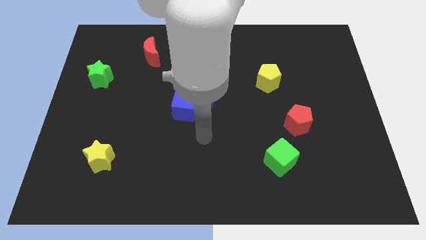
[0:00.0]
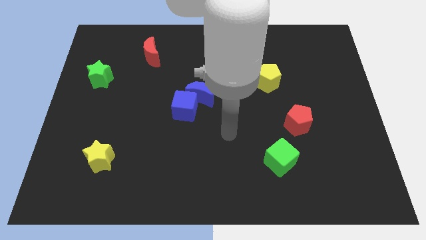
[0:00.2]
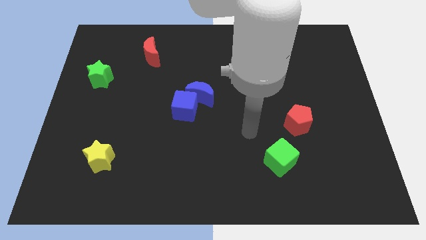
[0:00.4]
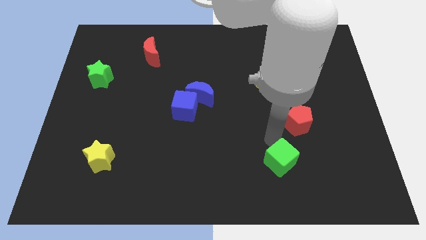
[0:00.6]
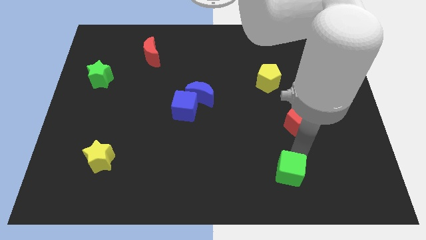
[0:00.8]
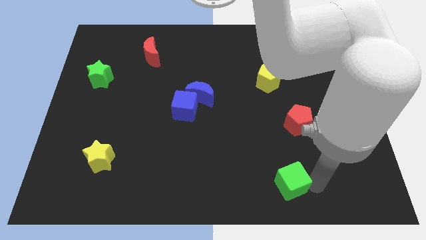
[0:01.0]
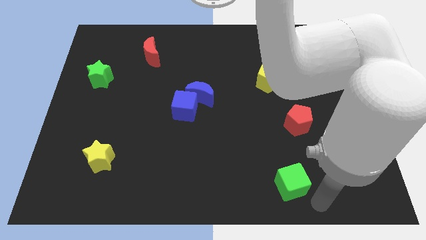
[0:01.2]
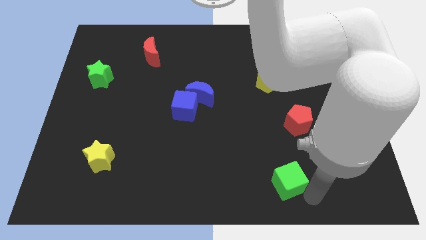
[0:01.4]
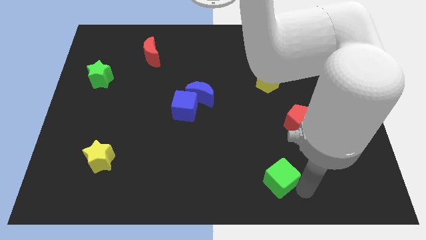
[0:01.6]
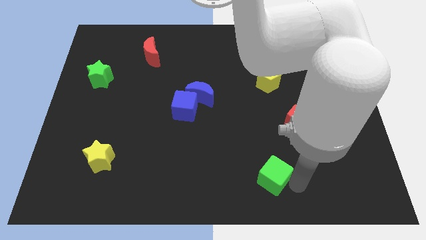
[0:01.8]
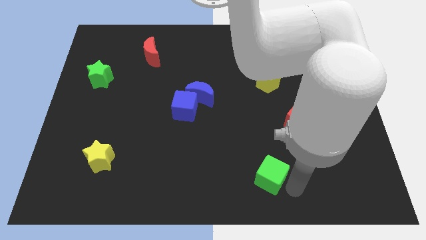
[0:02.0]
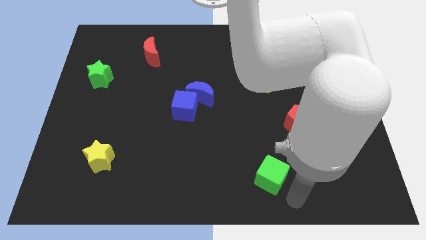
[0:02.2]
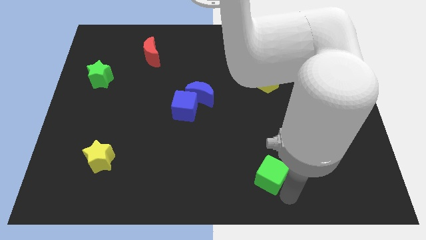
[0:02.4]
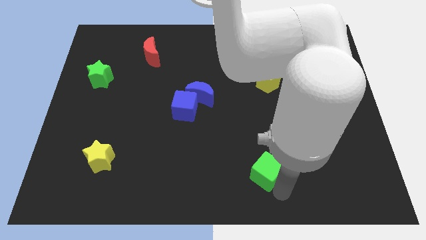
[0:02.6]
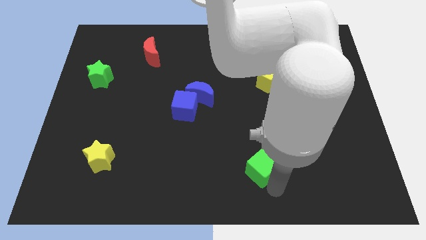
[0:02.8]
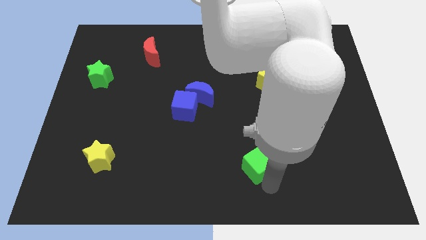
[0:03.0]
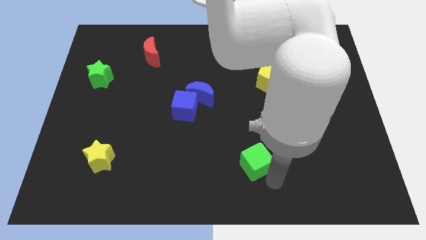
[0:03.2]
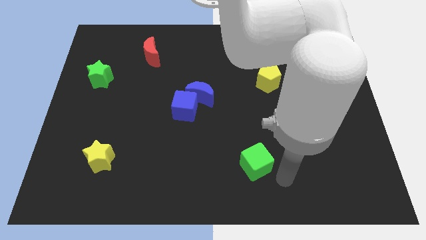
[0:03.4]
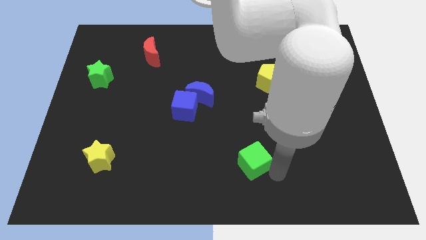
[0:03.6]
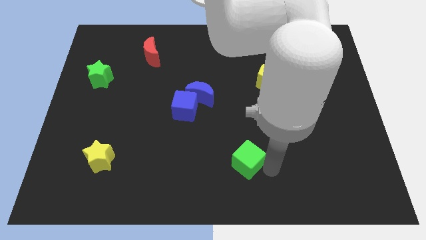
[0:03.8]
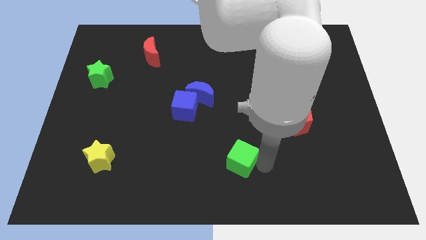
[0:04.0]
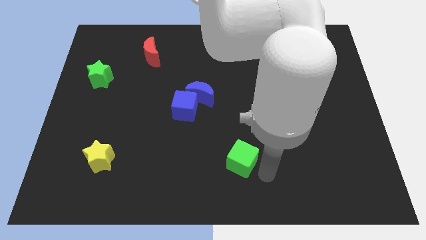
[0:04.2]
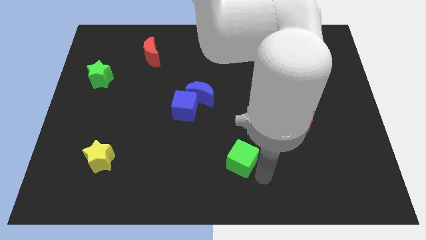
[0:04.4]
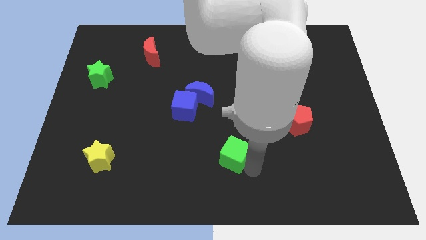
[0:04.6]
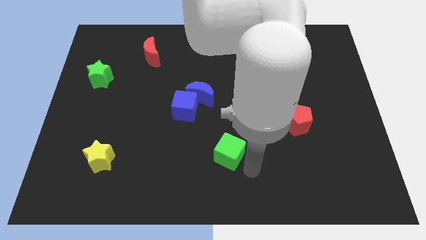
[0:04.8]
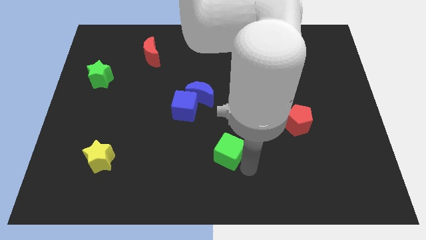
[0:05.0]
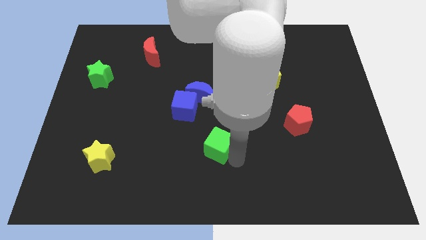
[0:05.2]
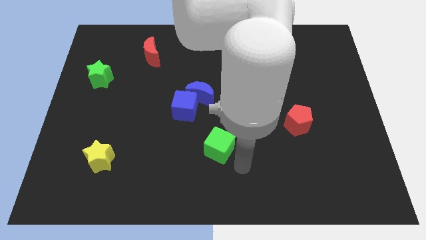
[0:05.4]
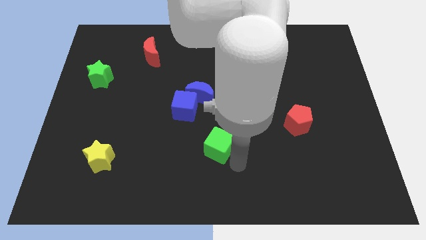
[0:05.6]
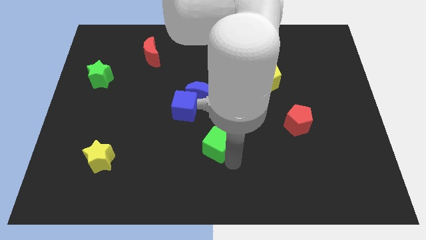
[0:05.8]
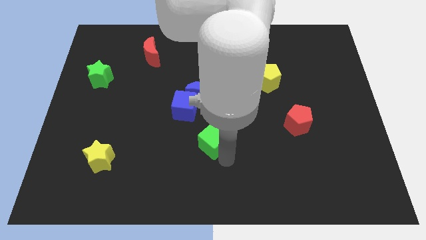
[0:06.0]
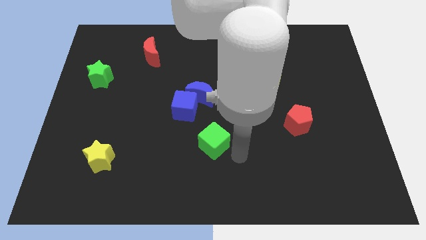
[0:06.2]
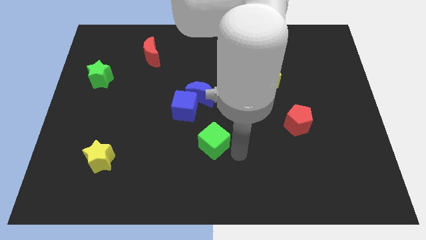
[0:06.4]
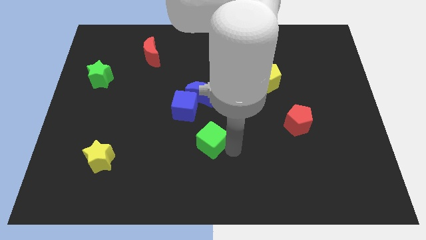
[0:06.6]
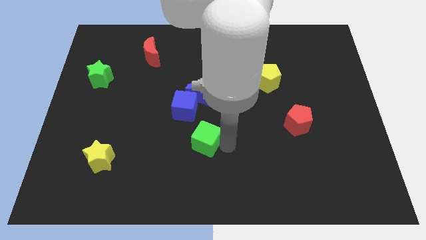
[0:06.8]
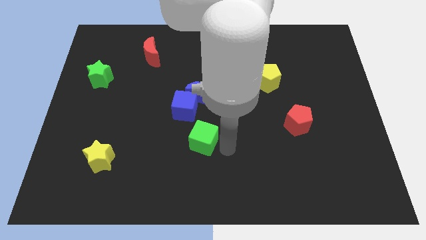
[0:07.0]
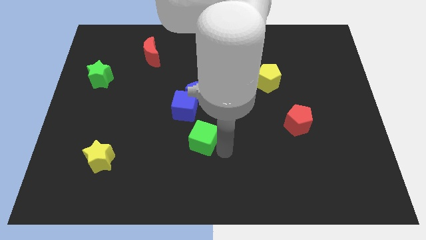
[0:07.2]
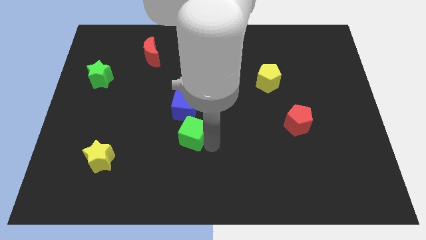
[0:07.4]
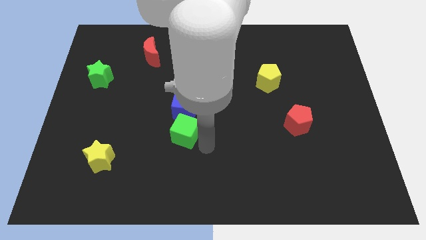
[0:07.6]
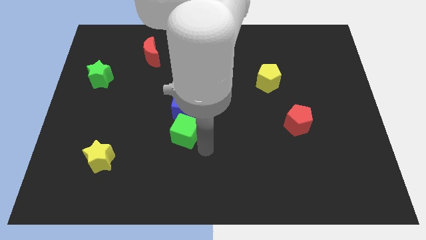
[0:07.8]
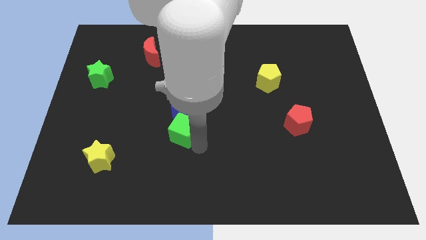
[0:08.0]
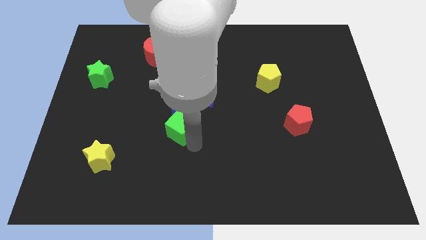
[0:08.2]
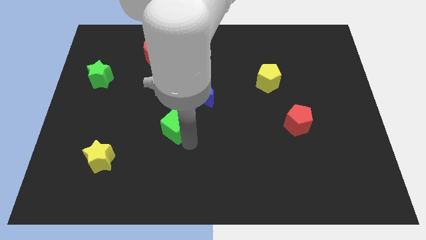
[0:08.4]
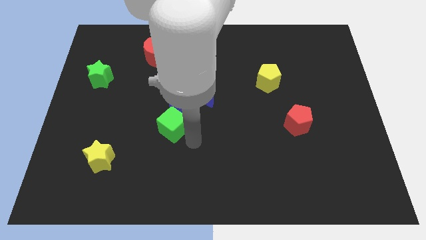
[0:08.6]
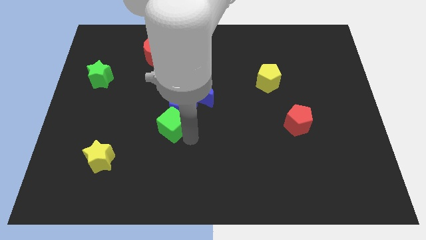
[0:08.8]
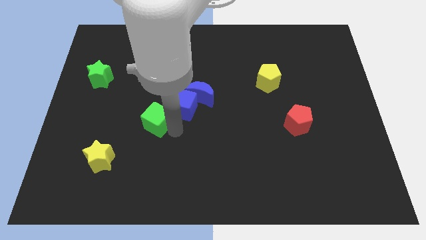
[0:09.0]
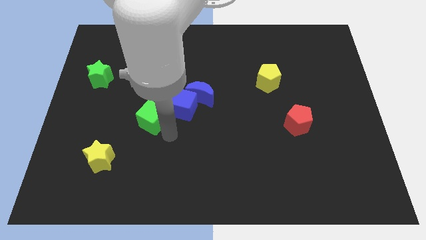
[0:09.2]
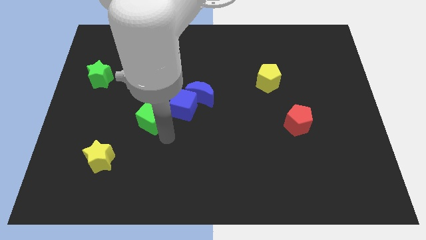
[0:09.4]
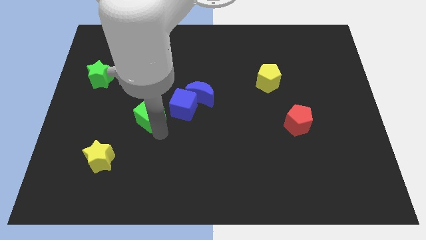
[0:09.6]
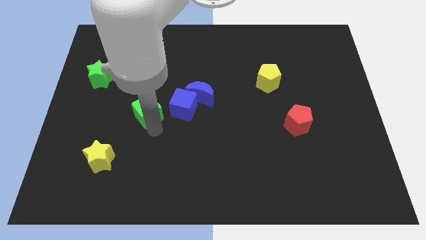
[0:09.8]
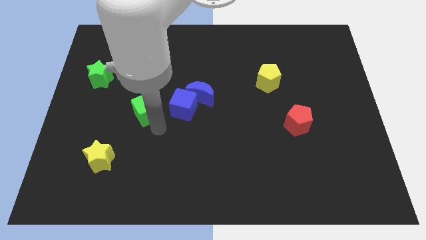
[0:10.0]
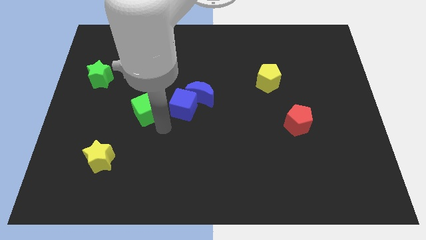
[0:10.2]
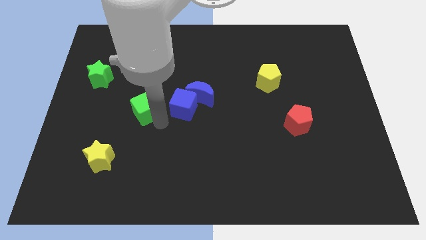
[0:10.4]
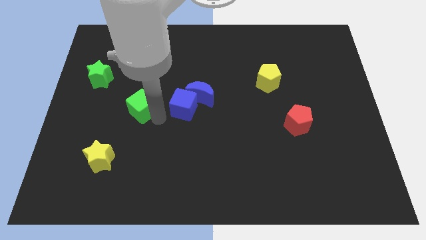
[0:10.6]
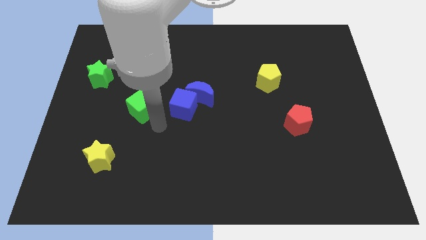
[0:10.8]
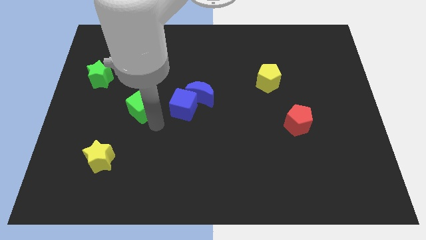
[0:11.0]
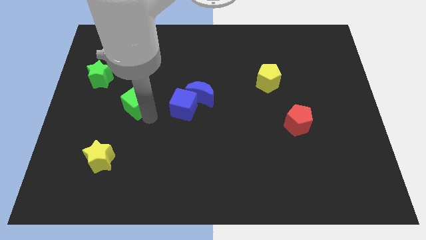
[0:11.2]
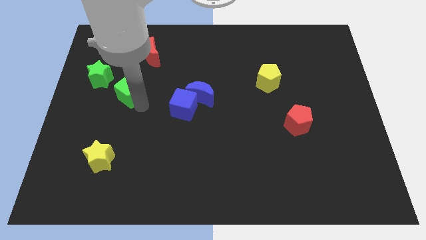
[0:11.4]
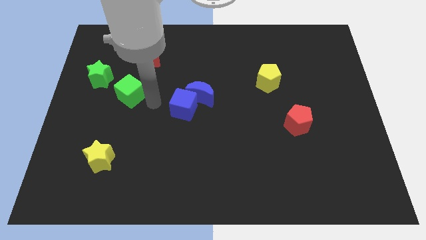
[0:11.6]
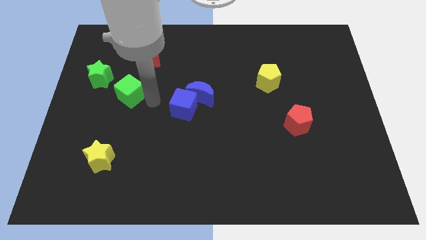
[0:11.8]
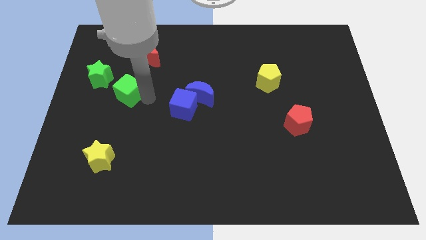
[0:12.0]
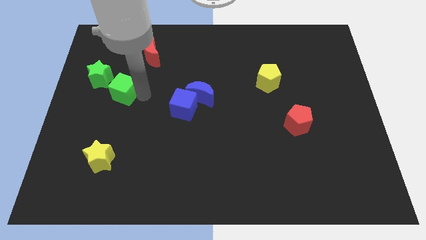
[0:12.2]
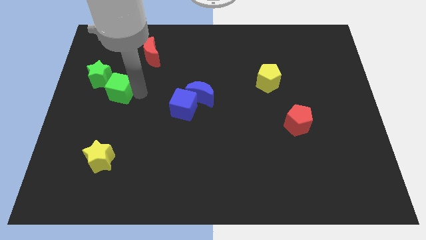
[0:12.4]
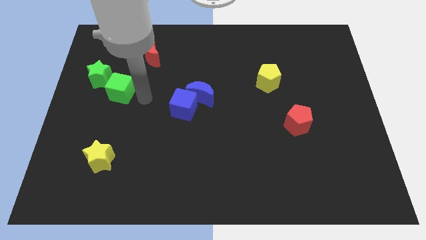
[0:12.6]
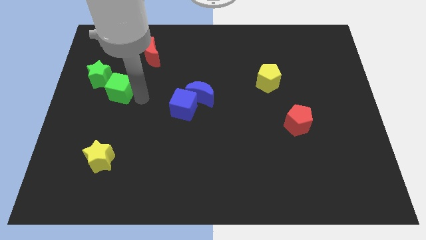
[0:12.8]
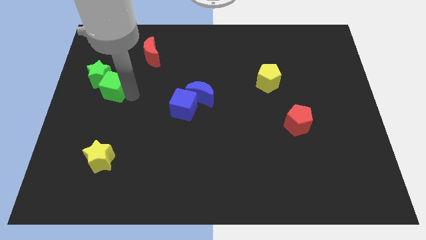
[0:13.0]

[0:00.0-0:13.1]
put the green cube next to the green star
